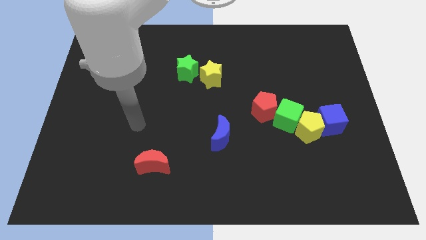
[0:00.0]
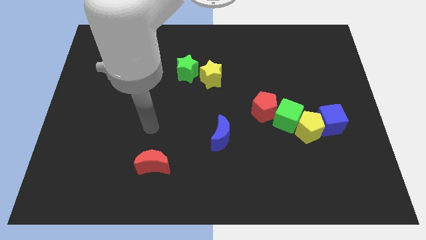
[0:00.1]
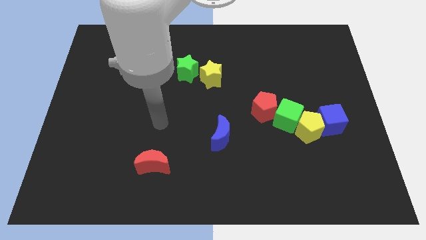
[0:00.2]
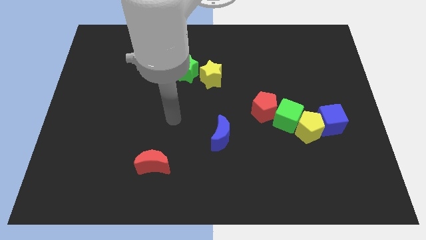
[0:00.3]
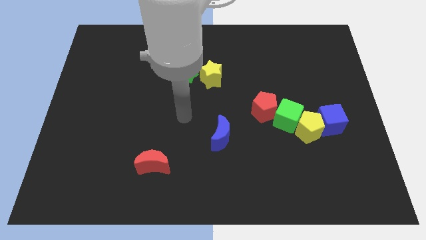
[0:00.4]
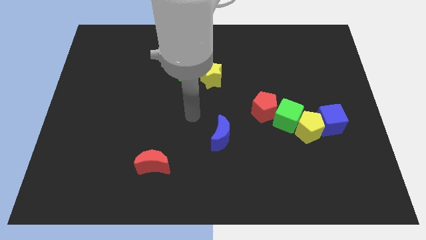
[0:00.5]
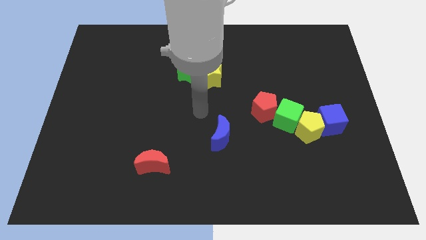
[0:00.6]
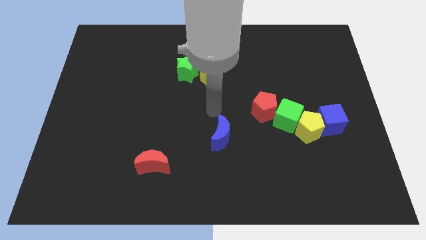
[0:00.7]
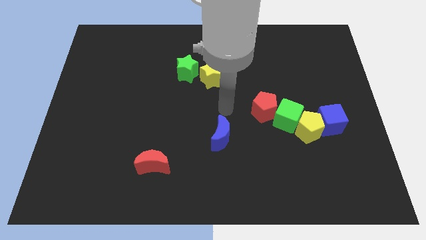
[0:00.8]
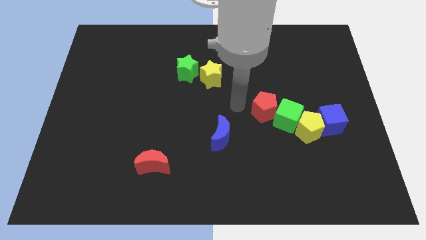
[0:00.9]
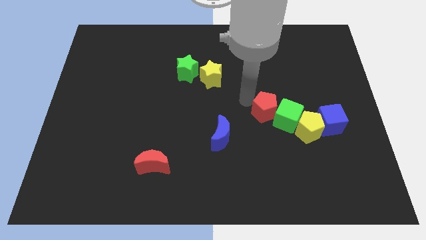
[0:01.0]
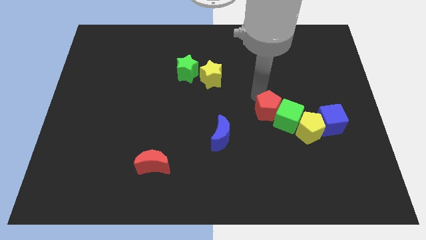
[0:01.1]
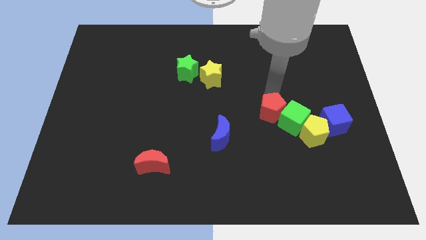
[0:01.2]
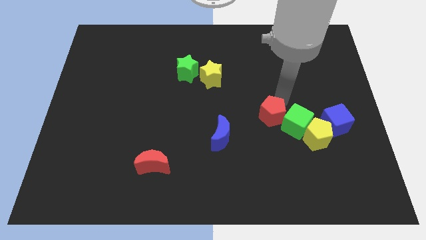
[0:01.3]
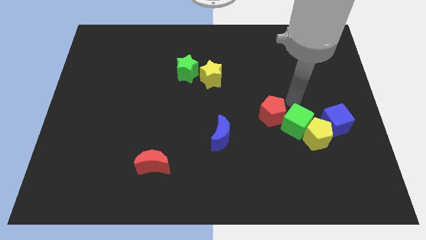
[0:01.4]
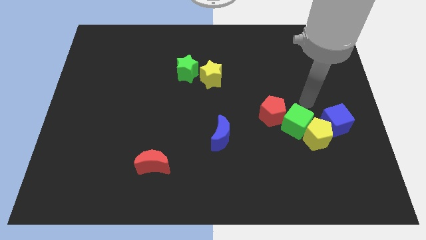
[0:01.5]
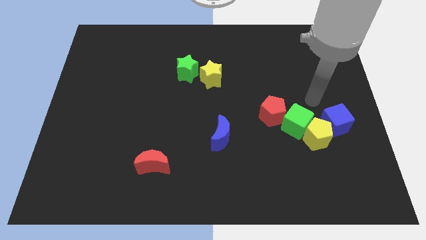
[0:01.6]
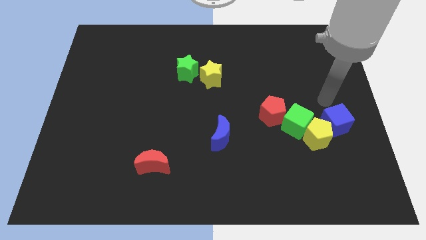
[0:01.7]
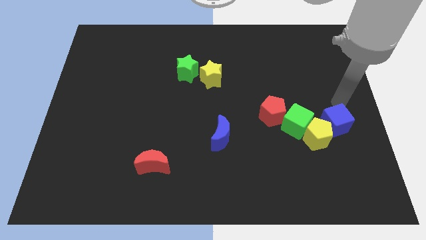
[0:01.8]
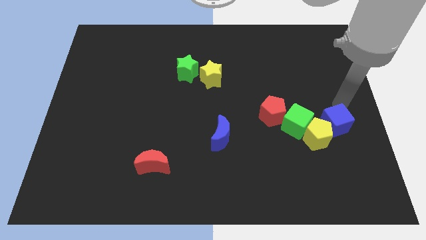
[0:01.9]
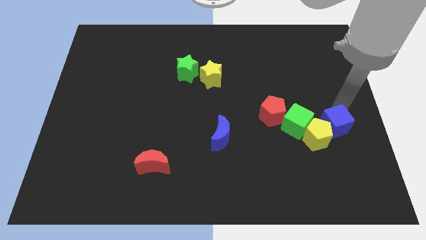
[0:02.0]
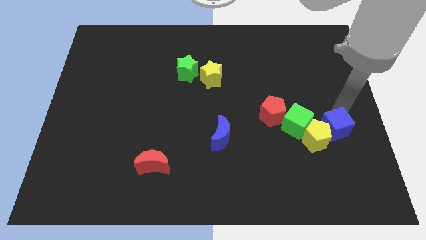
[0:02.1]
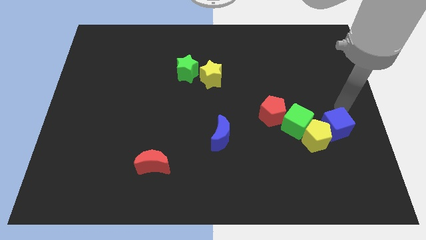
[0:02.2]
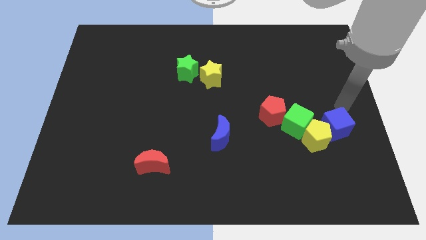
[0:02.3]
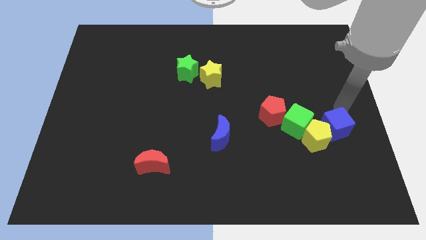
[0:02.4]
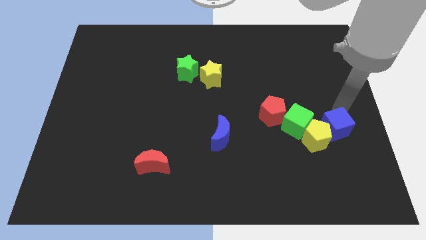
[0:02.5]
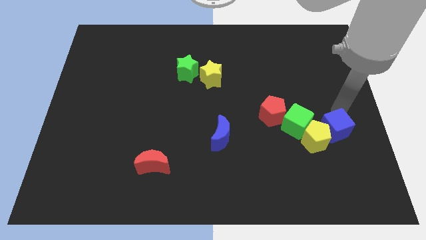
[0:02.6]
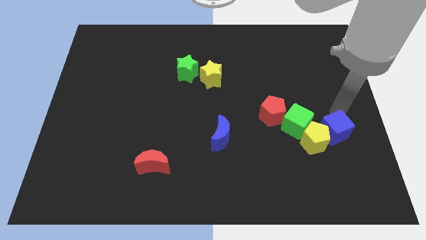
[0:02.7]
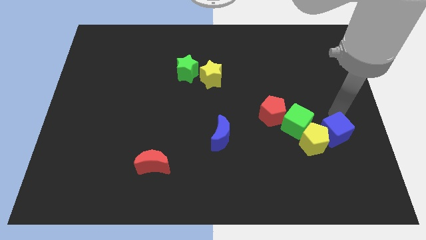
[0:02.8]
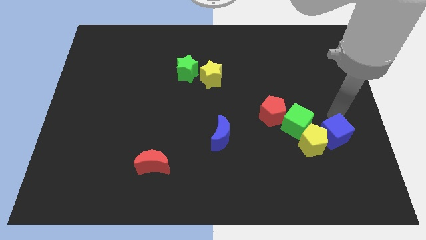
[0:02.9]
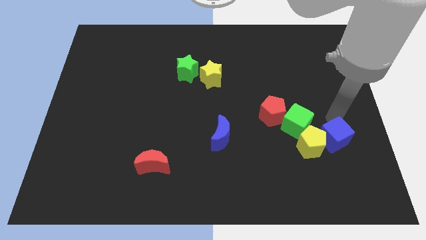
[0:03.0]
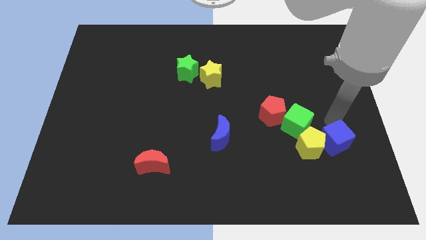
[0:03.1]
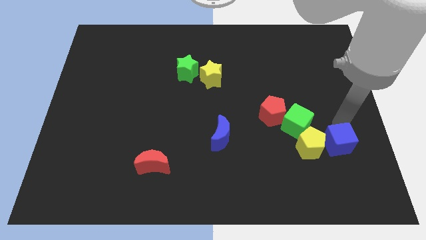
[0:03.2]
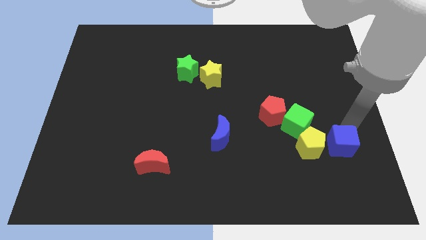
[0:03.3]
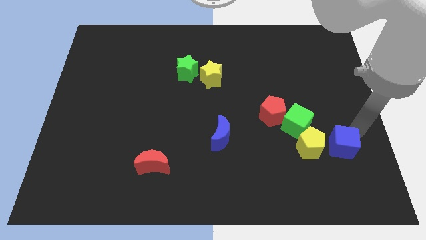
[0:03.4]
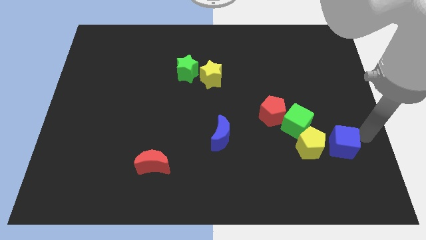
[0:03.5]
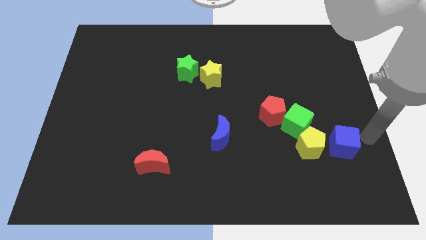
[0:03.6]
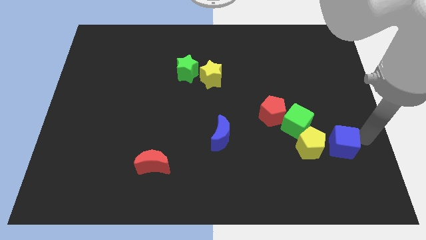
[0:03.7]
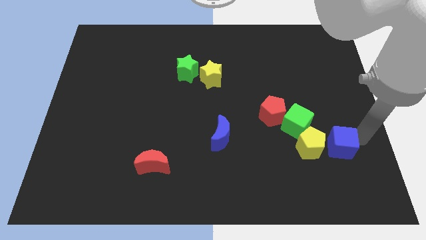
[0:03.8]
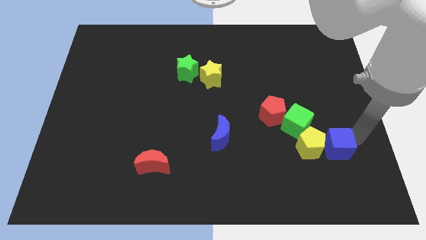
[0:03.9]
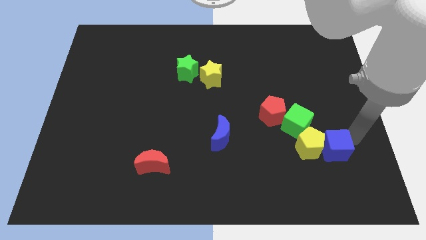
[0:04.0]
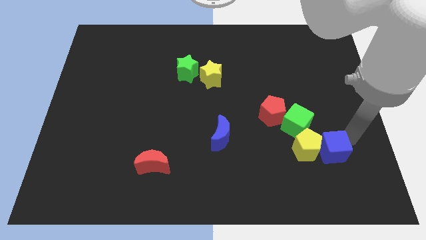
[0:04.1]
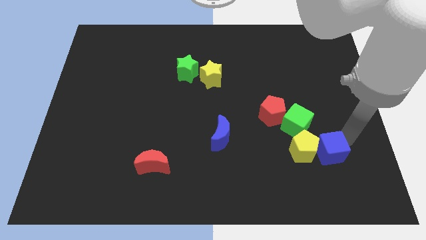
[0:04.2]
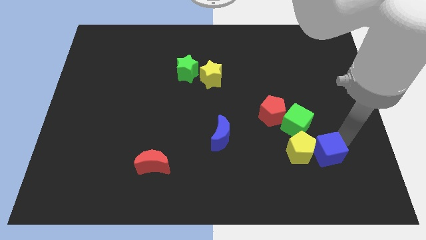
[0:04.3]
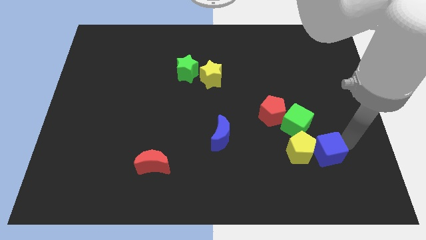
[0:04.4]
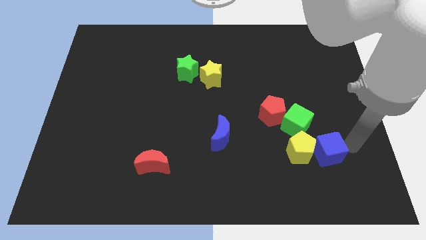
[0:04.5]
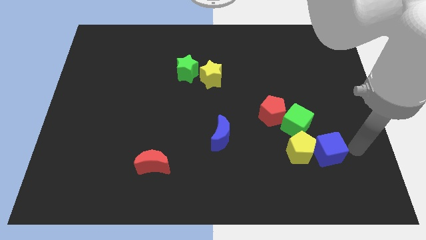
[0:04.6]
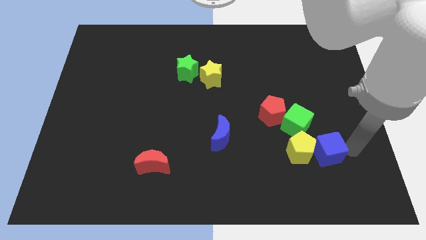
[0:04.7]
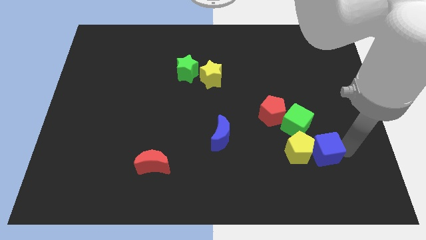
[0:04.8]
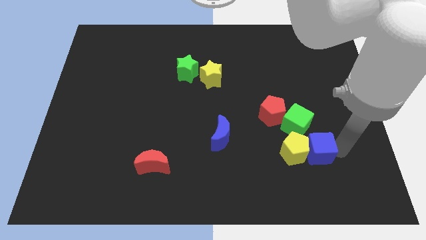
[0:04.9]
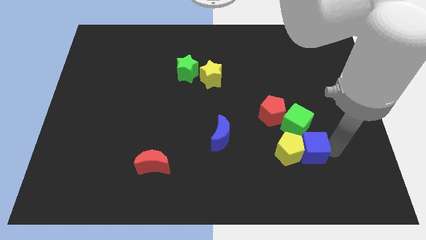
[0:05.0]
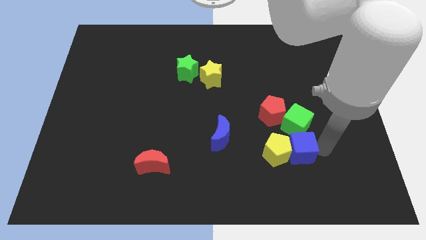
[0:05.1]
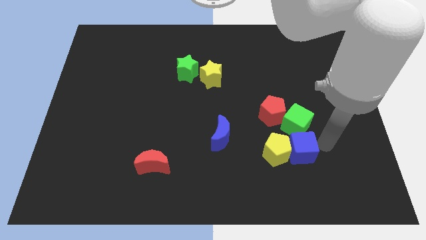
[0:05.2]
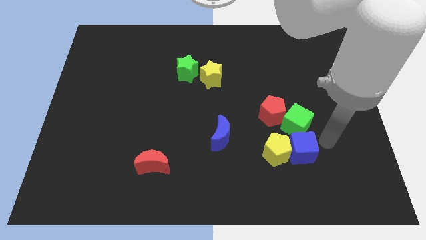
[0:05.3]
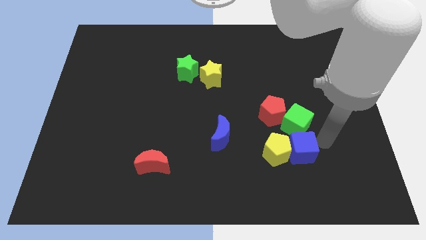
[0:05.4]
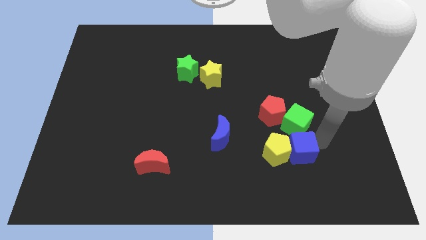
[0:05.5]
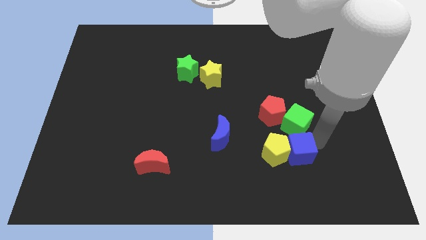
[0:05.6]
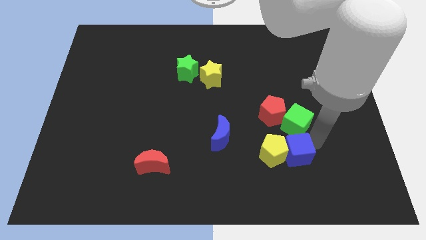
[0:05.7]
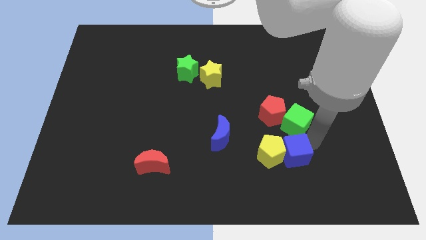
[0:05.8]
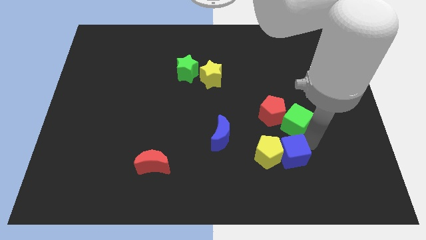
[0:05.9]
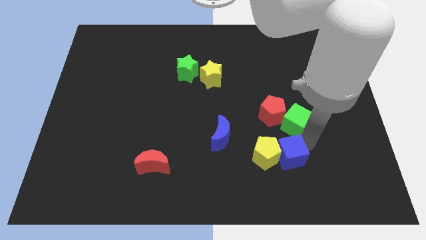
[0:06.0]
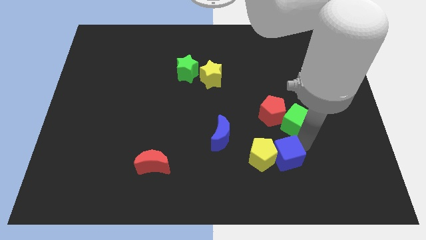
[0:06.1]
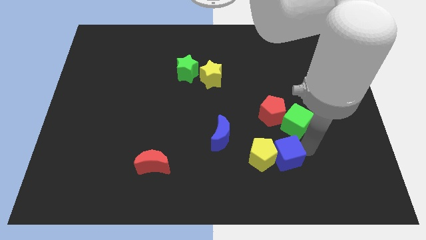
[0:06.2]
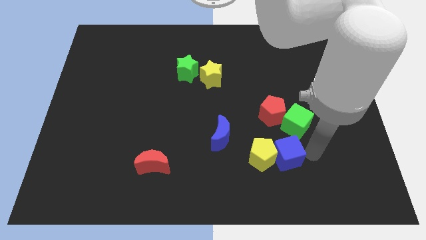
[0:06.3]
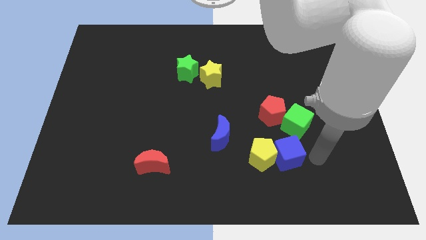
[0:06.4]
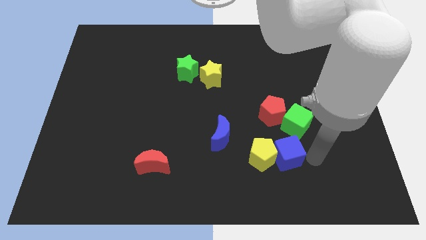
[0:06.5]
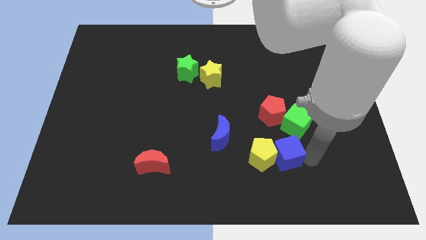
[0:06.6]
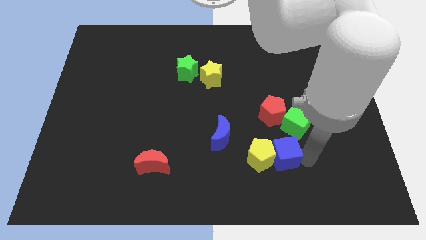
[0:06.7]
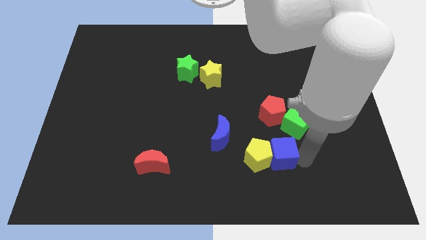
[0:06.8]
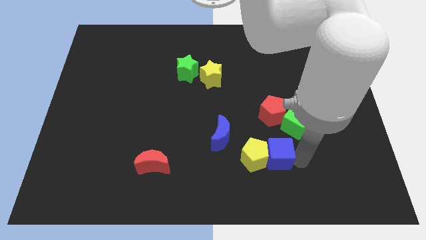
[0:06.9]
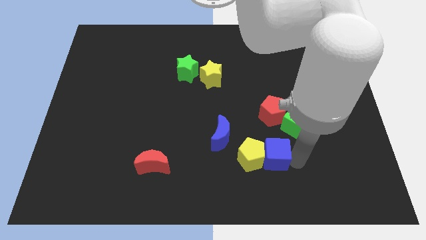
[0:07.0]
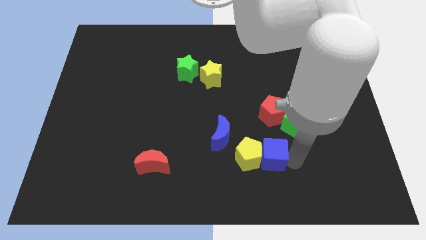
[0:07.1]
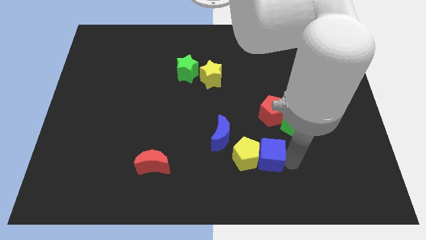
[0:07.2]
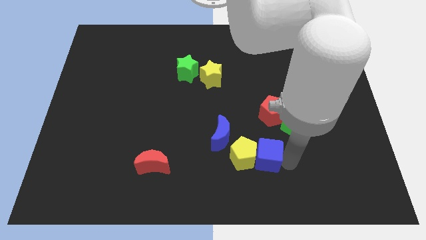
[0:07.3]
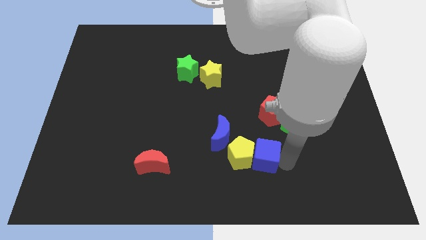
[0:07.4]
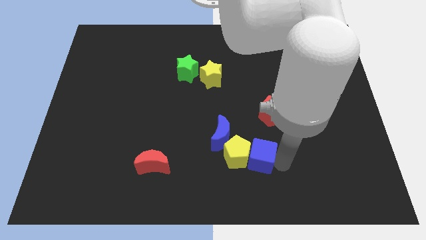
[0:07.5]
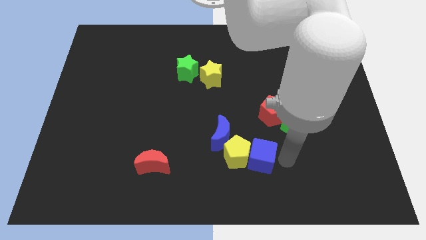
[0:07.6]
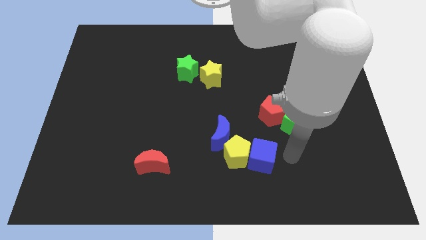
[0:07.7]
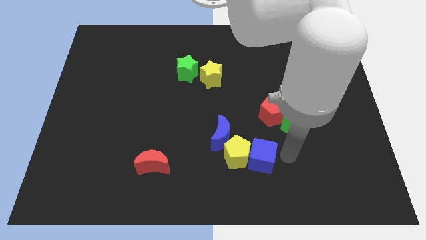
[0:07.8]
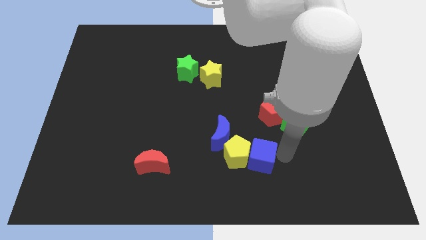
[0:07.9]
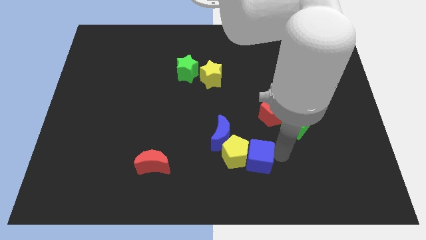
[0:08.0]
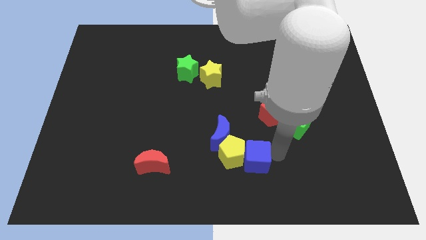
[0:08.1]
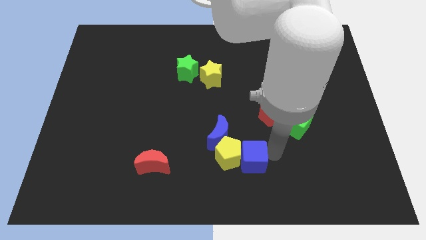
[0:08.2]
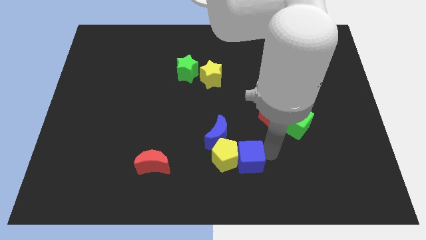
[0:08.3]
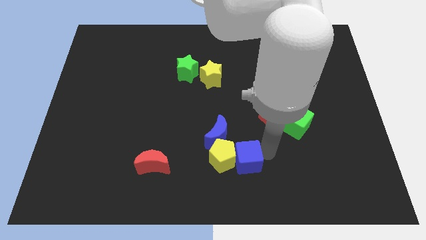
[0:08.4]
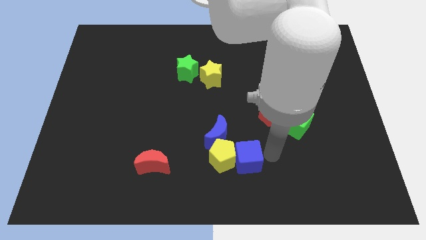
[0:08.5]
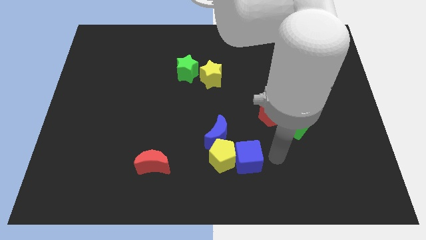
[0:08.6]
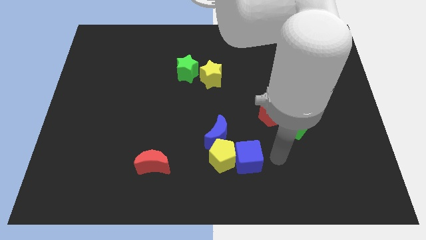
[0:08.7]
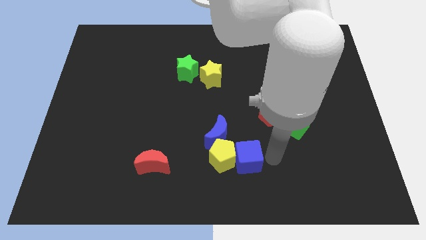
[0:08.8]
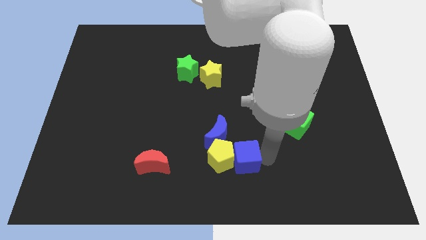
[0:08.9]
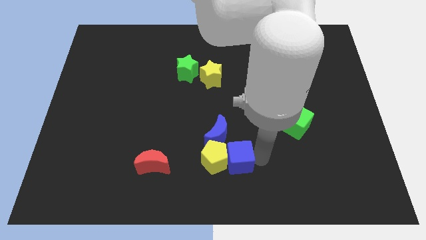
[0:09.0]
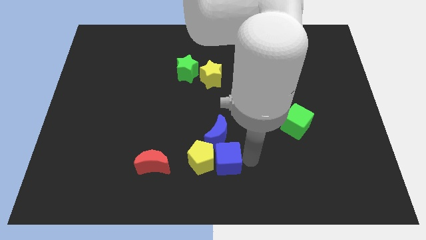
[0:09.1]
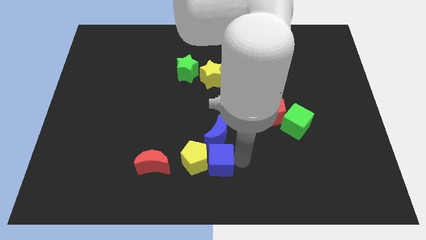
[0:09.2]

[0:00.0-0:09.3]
push the blue cube to the bottom left side of the blue moon
